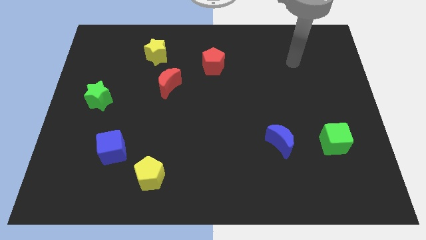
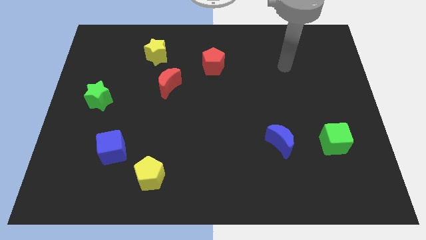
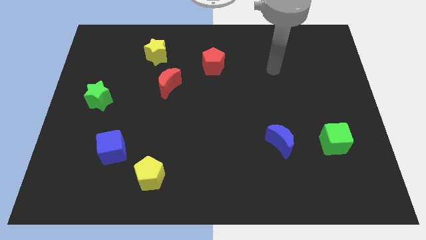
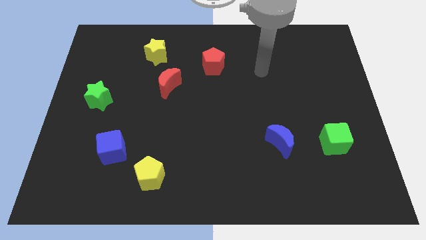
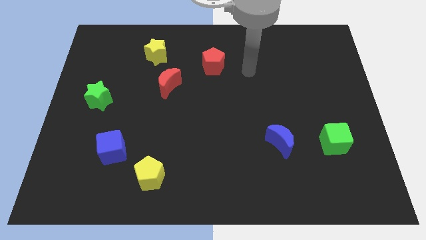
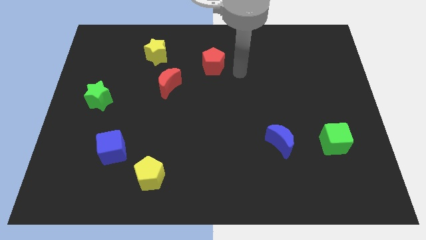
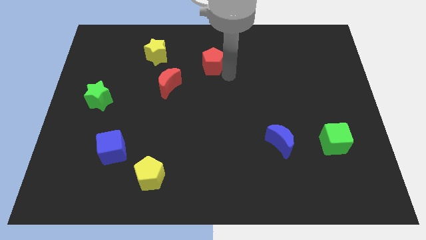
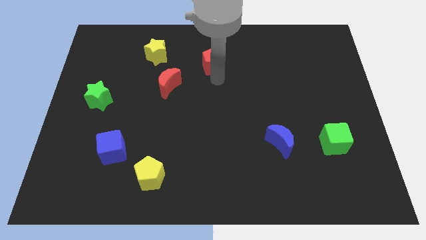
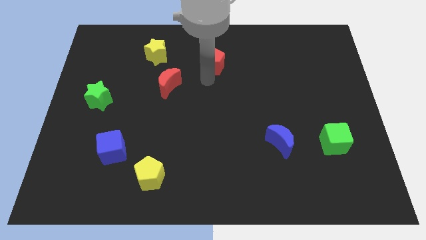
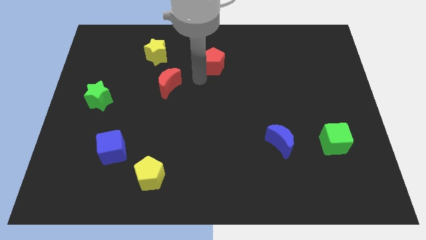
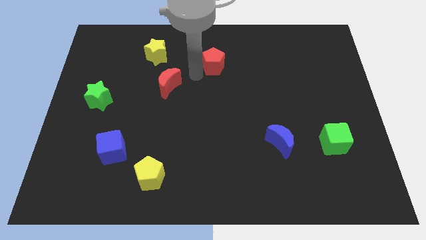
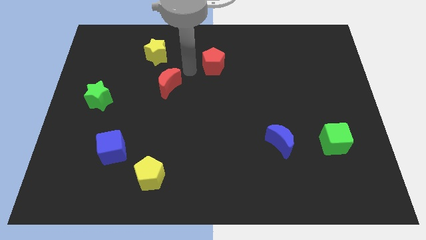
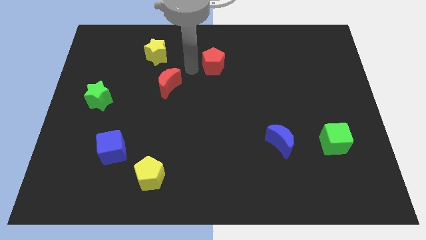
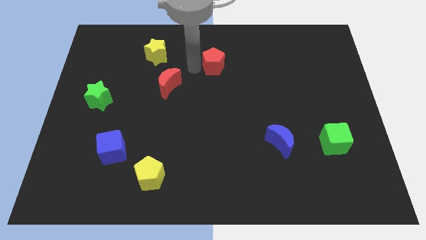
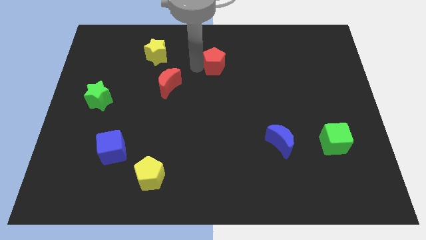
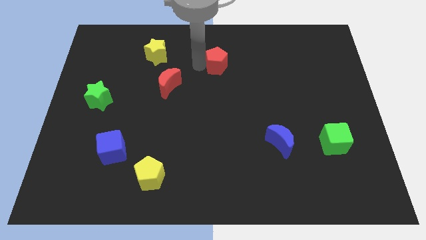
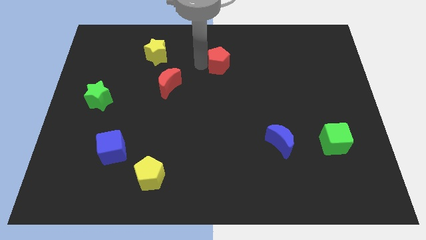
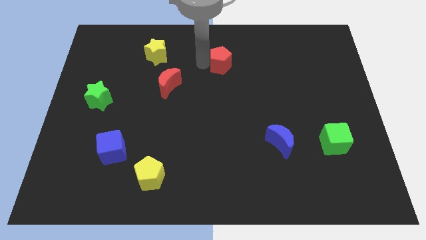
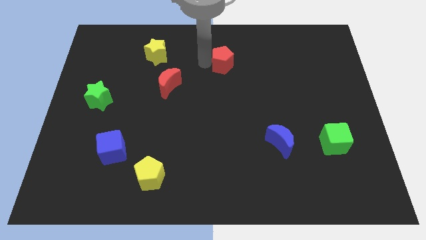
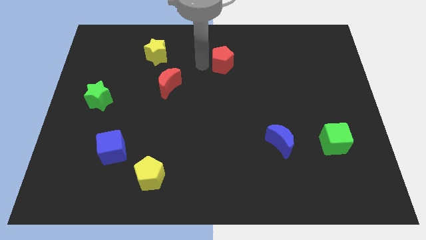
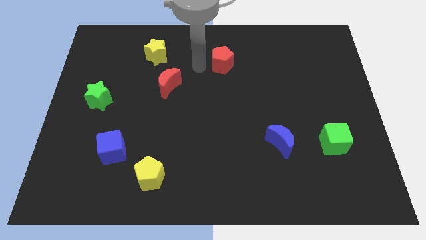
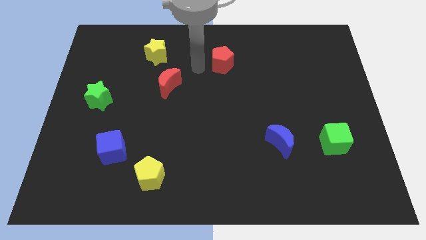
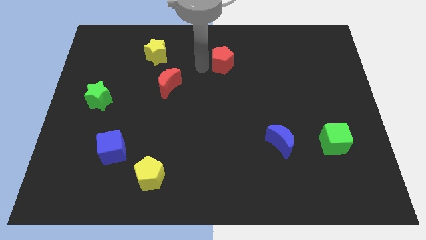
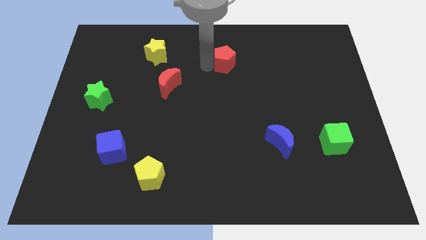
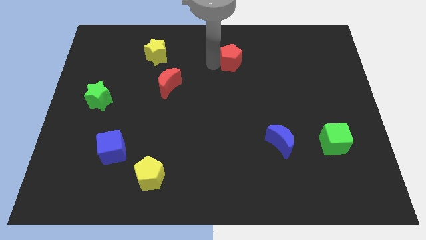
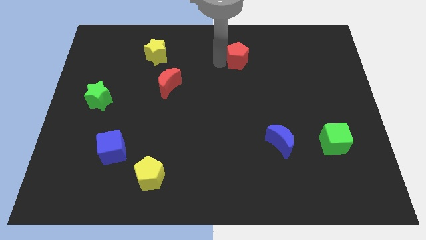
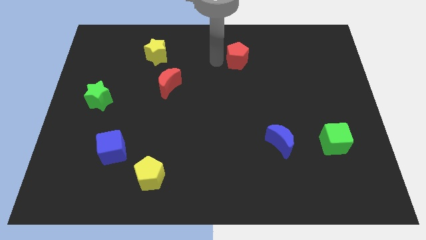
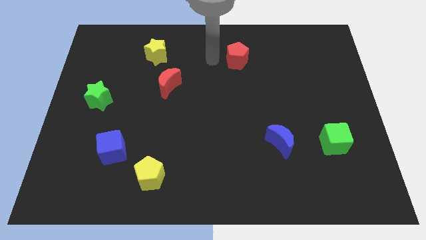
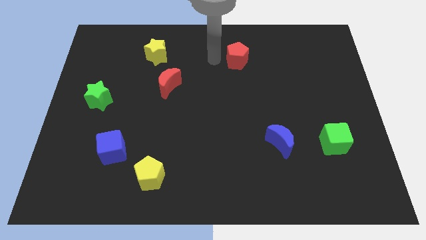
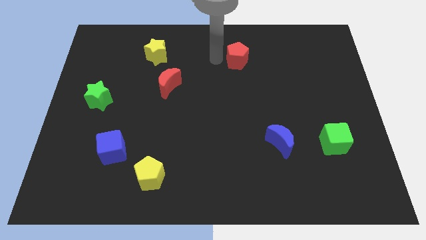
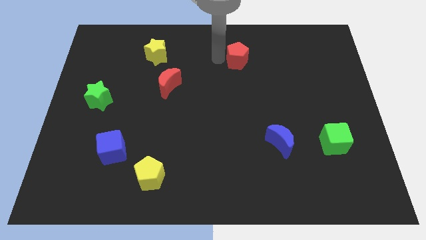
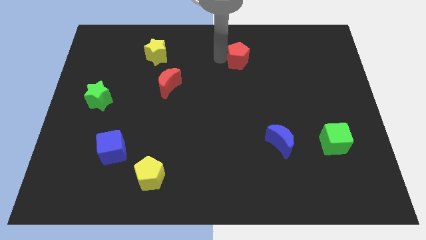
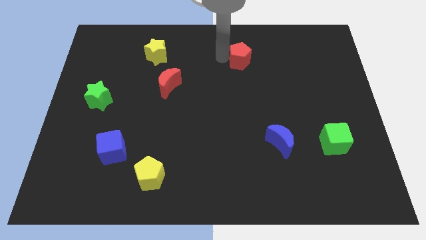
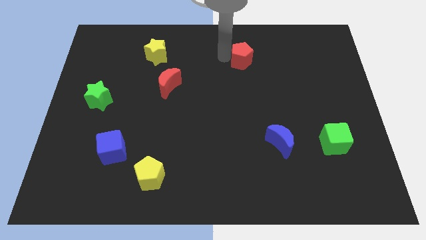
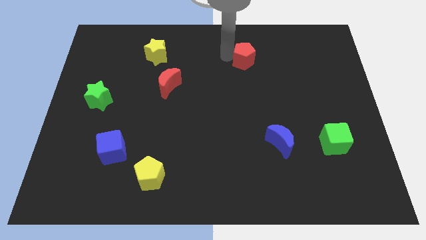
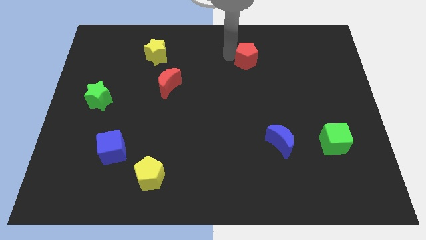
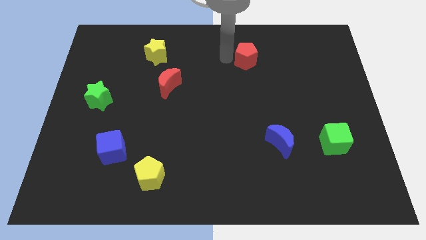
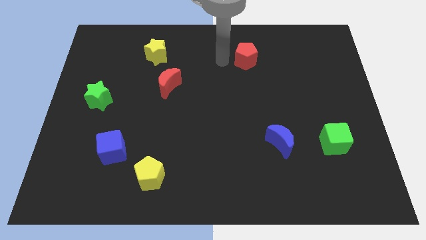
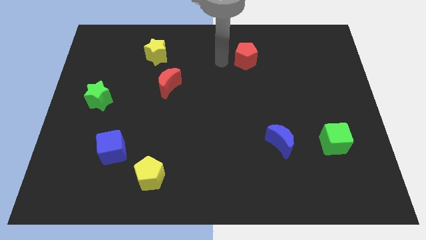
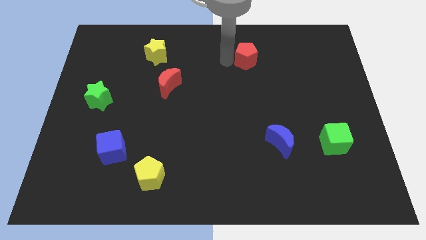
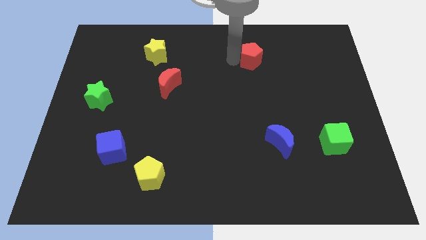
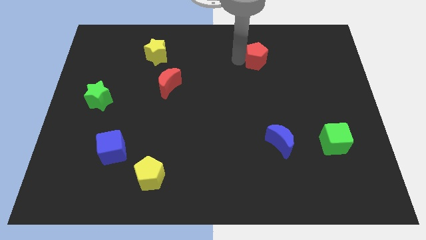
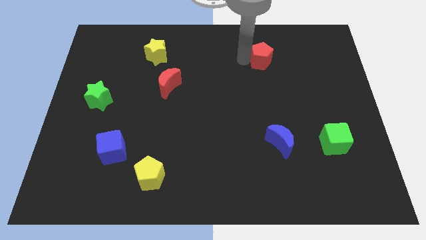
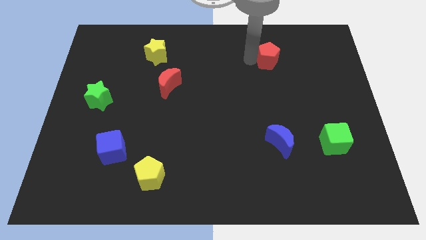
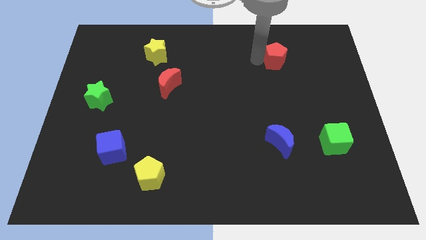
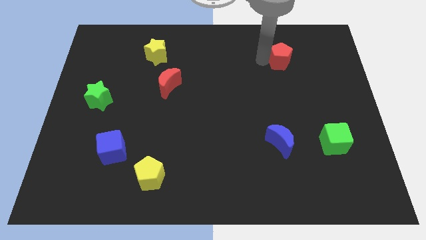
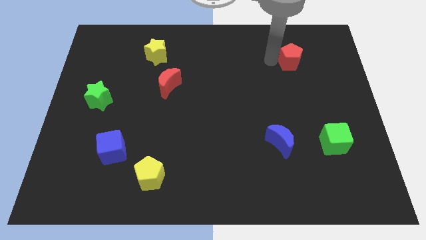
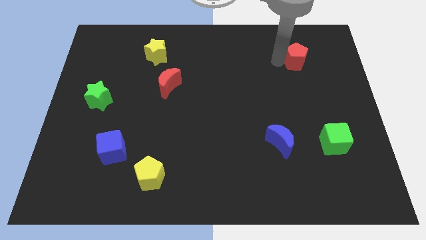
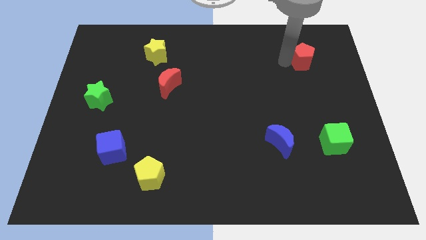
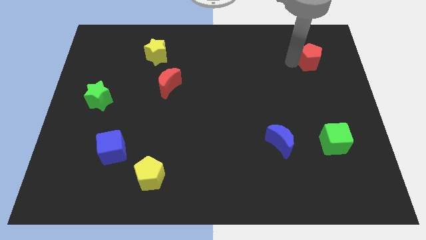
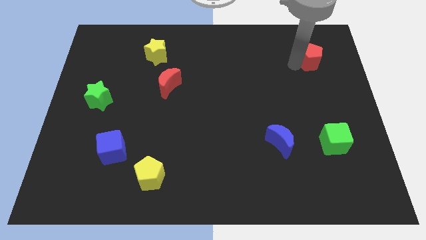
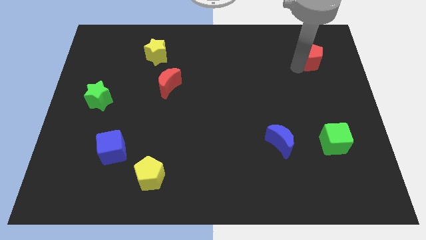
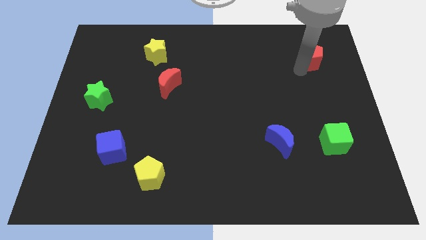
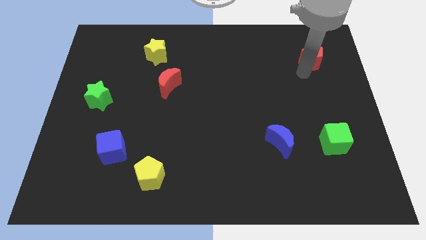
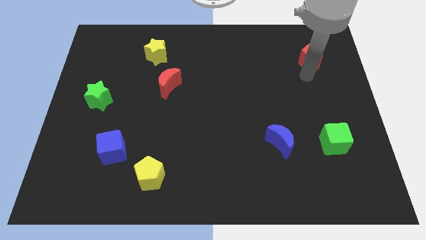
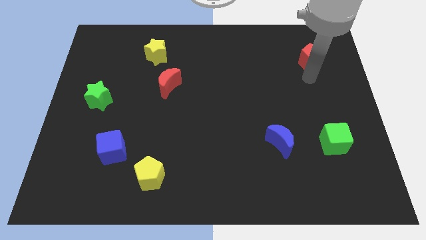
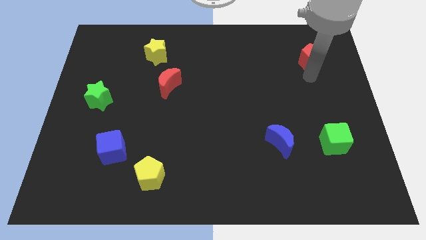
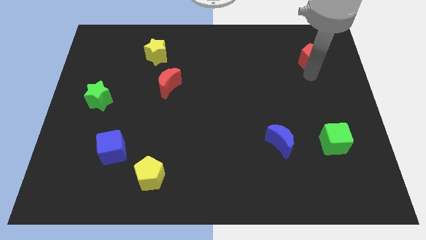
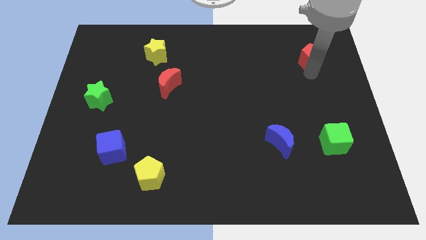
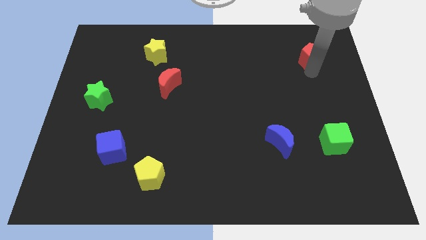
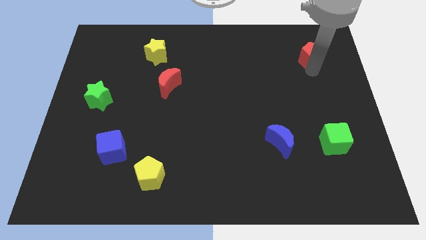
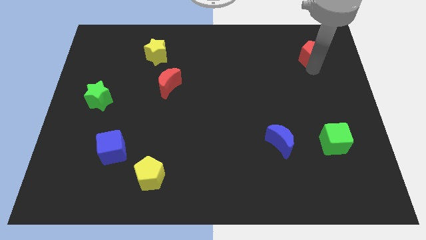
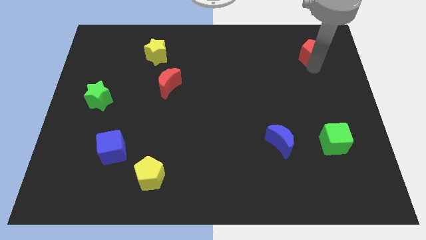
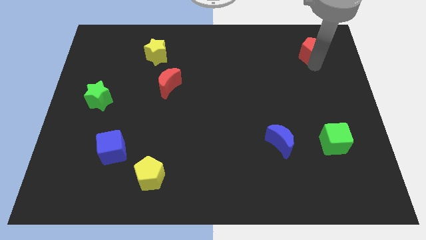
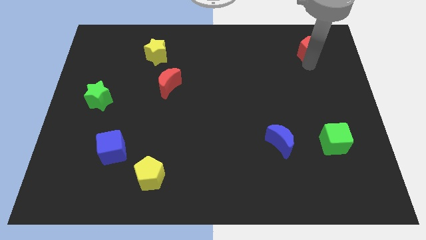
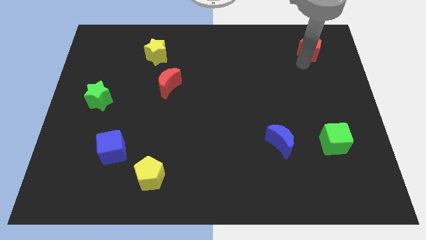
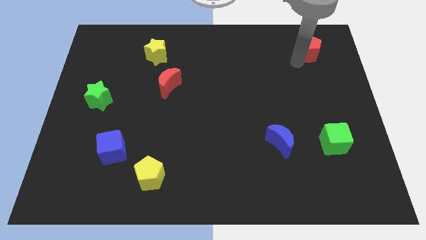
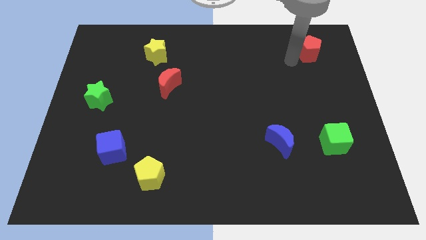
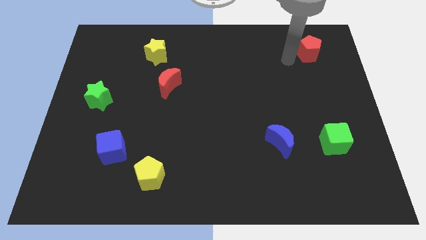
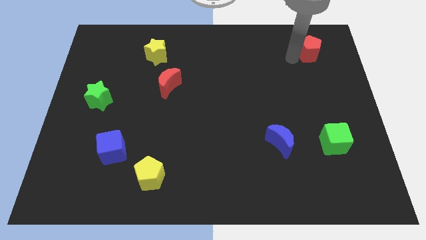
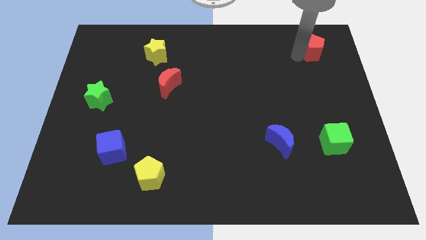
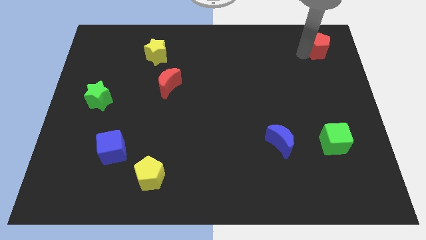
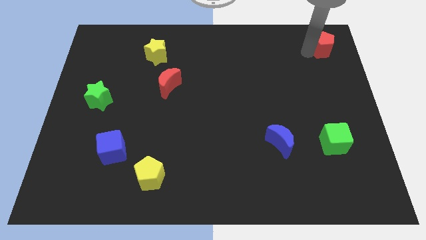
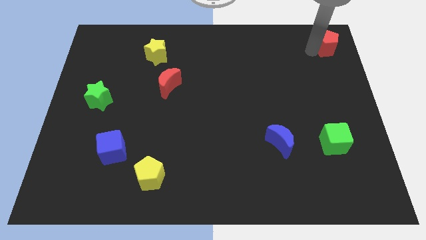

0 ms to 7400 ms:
put the red pentagon to the upper right corner
